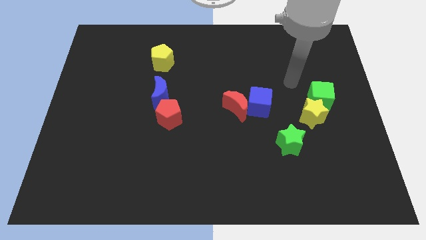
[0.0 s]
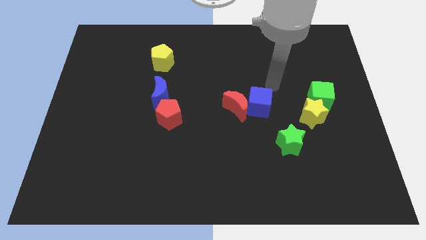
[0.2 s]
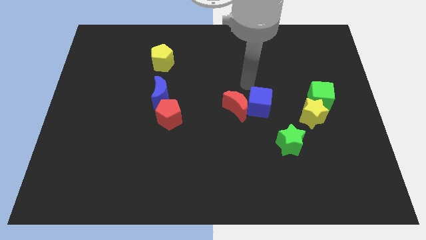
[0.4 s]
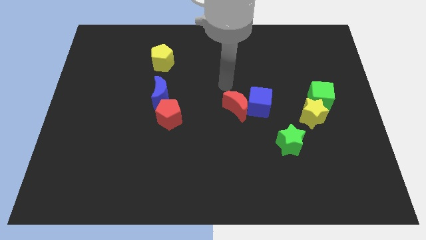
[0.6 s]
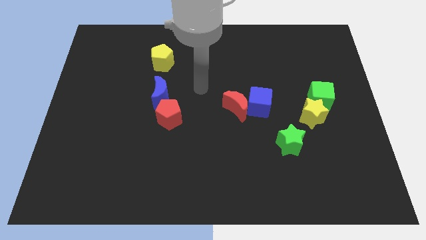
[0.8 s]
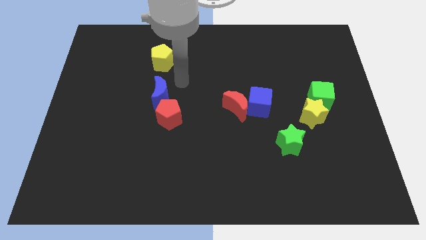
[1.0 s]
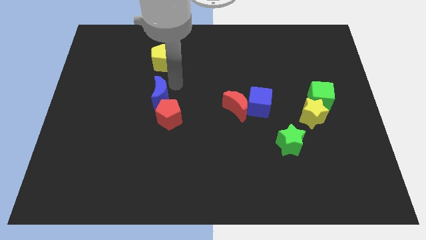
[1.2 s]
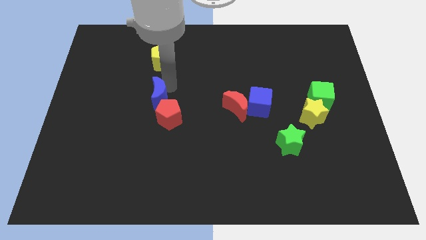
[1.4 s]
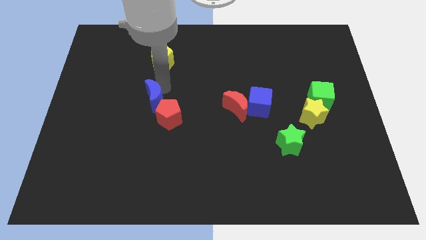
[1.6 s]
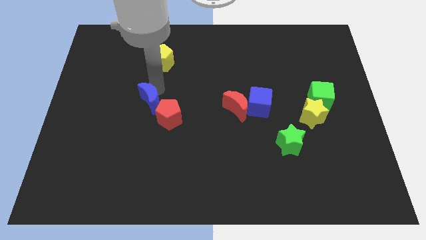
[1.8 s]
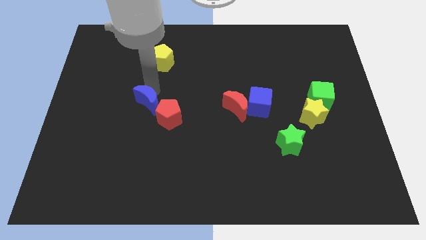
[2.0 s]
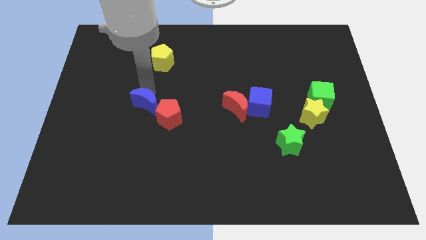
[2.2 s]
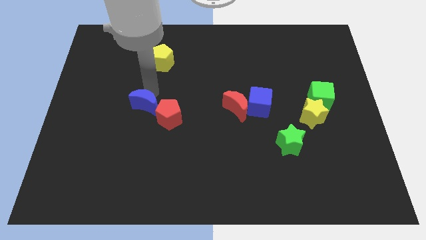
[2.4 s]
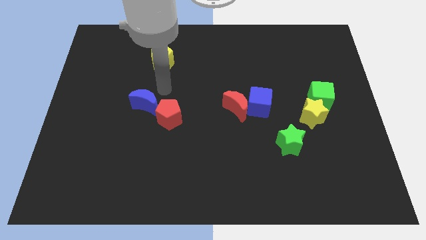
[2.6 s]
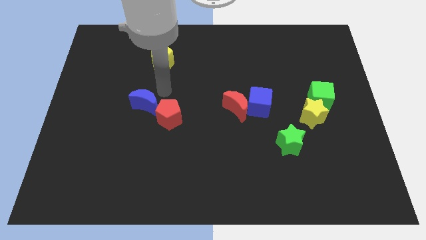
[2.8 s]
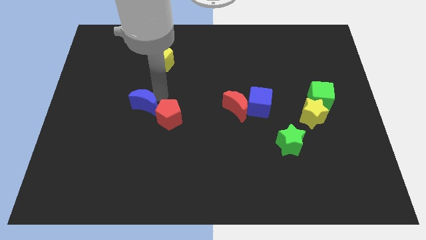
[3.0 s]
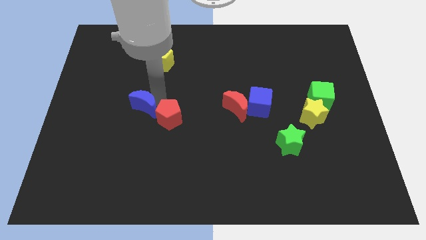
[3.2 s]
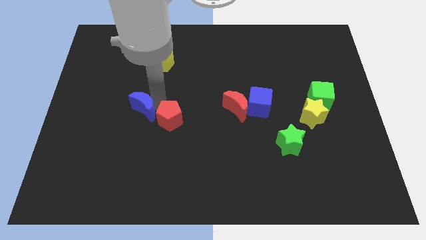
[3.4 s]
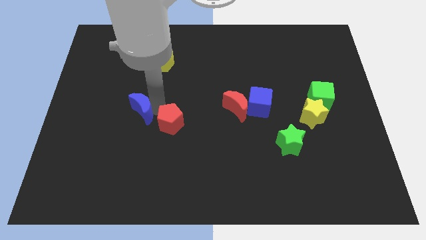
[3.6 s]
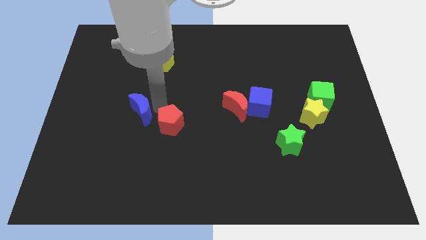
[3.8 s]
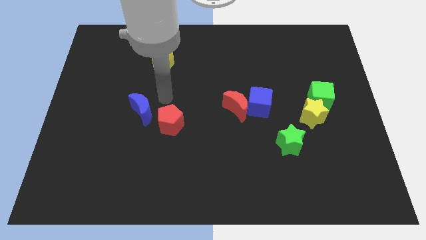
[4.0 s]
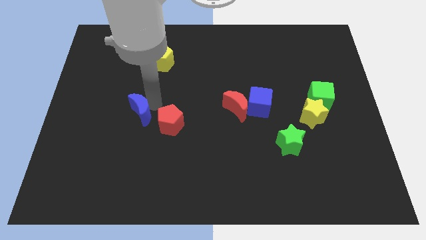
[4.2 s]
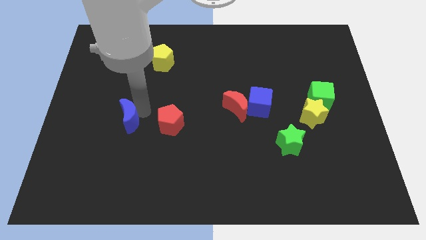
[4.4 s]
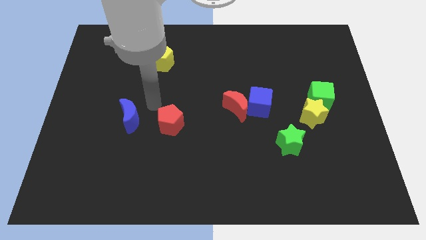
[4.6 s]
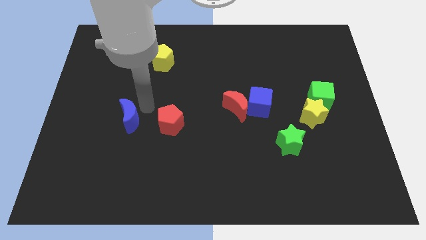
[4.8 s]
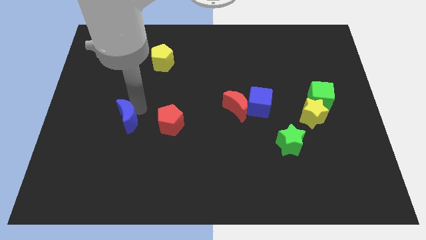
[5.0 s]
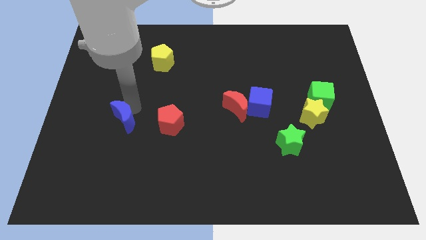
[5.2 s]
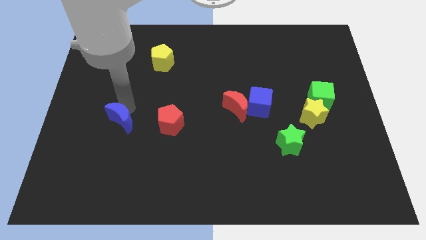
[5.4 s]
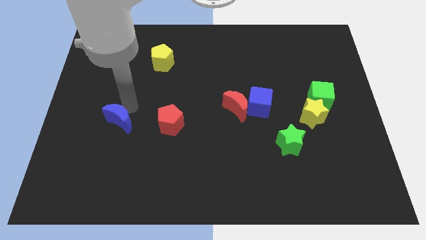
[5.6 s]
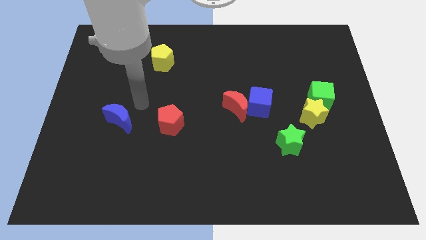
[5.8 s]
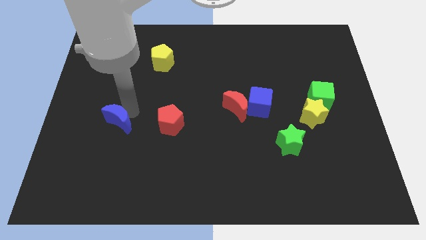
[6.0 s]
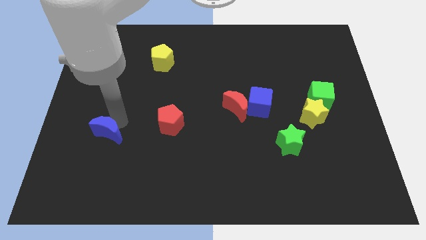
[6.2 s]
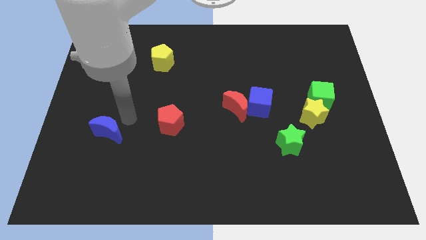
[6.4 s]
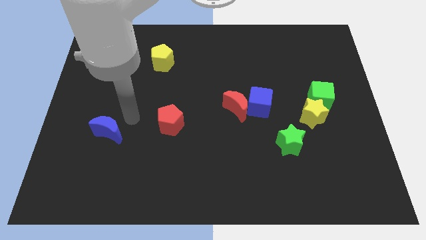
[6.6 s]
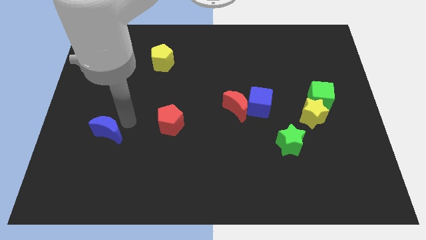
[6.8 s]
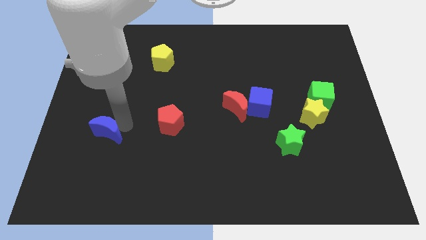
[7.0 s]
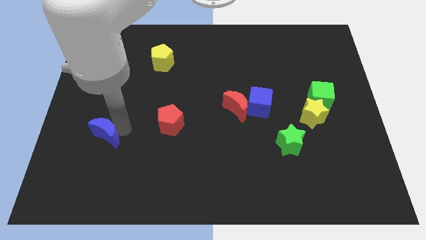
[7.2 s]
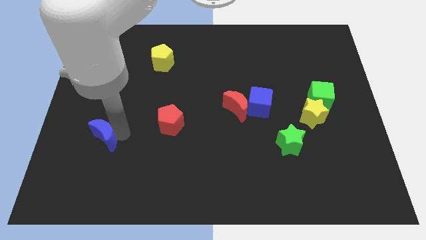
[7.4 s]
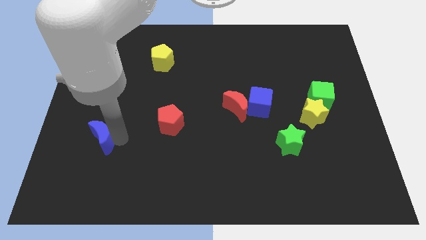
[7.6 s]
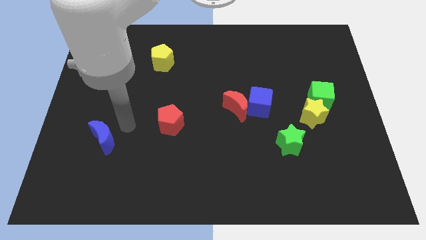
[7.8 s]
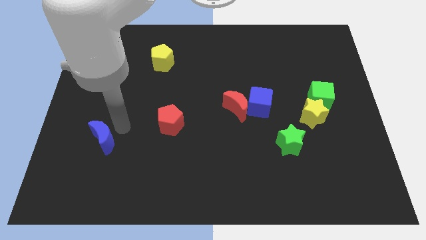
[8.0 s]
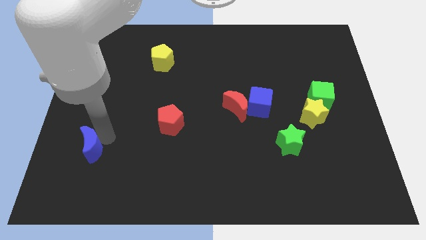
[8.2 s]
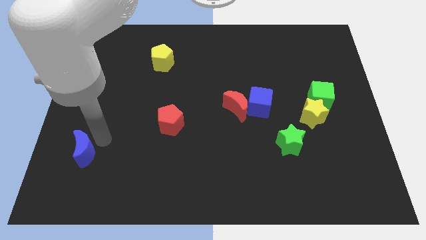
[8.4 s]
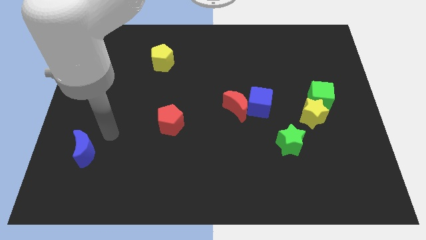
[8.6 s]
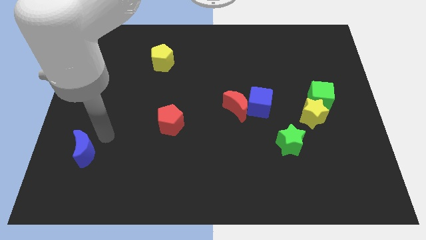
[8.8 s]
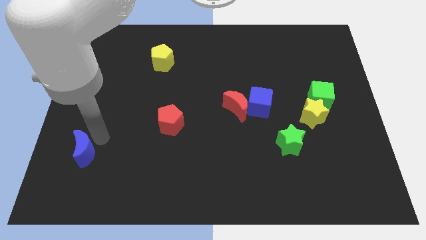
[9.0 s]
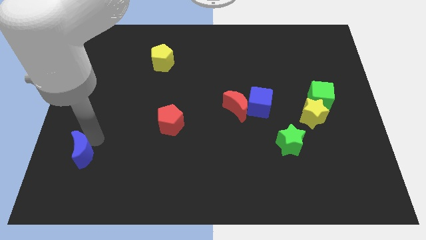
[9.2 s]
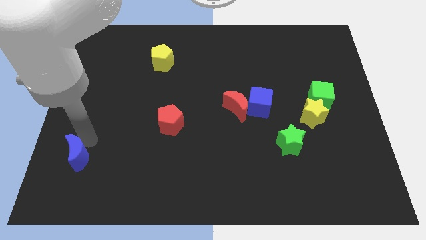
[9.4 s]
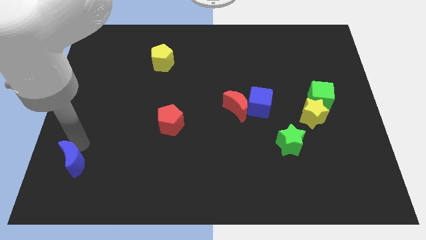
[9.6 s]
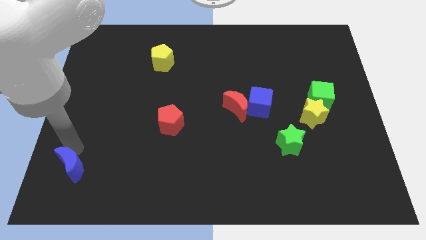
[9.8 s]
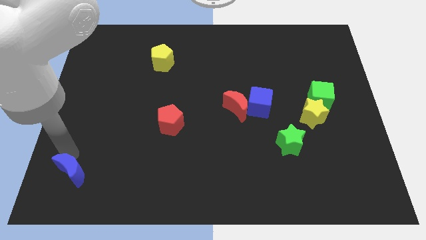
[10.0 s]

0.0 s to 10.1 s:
slide the blue moon to the lower left corner

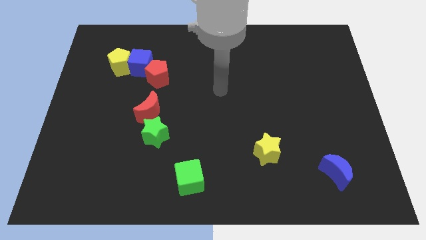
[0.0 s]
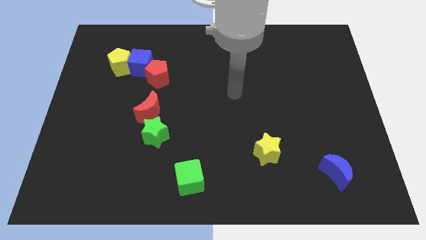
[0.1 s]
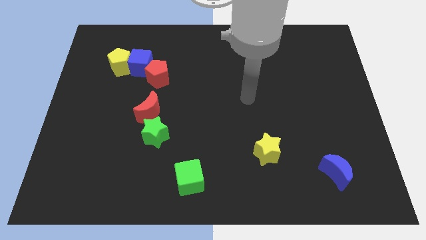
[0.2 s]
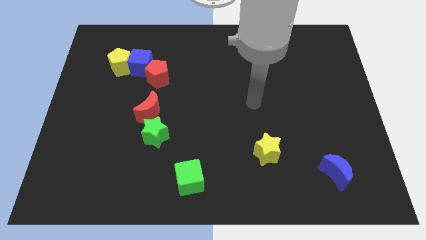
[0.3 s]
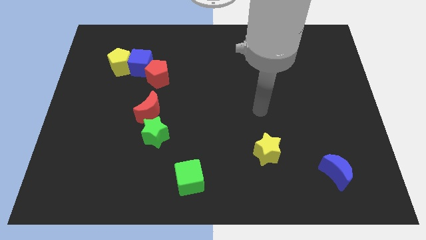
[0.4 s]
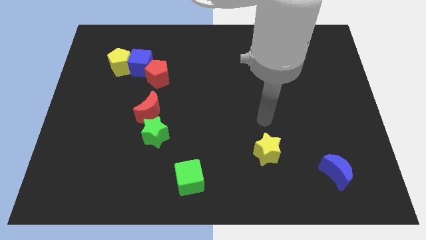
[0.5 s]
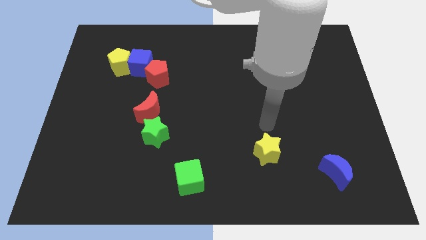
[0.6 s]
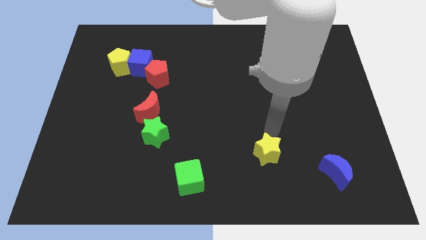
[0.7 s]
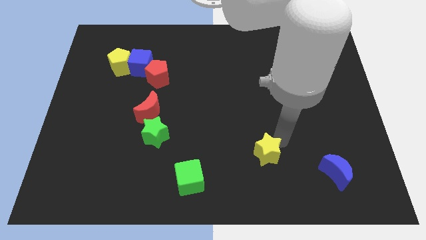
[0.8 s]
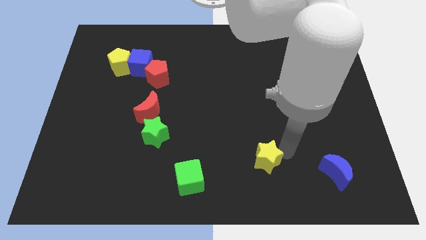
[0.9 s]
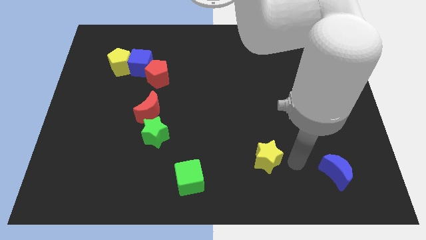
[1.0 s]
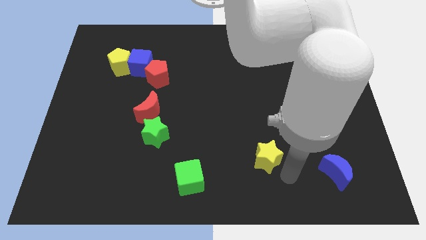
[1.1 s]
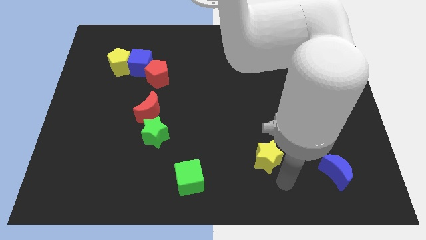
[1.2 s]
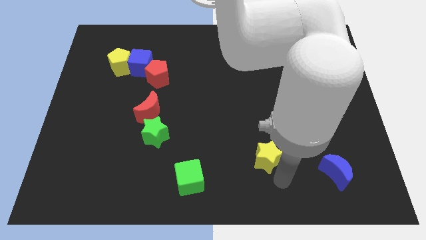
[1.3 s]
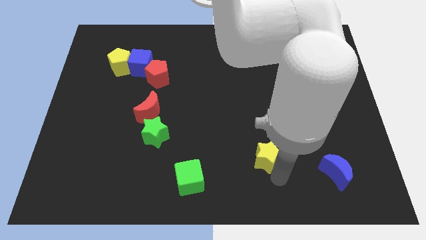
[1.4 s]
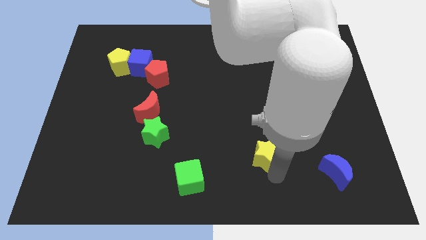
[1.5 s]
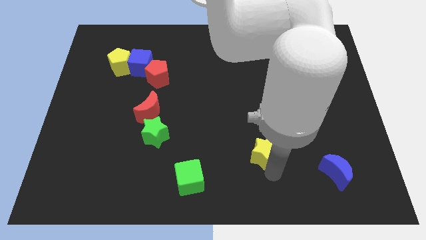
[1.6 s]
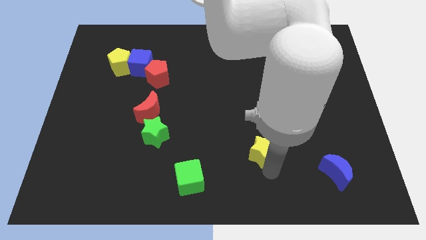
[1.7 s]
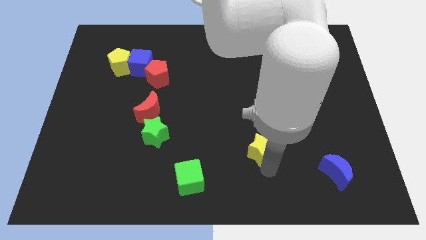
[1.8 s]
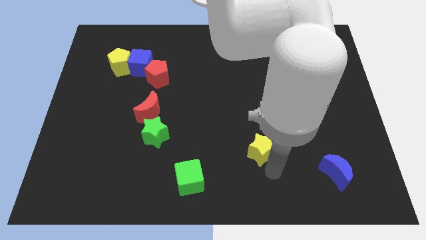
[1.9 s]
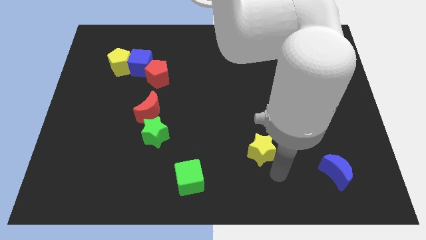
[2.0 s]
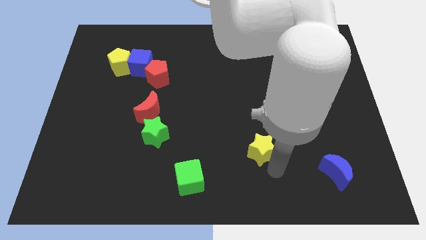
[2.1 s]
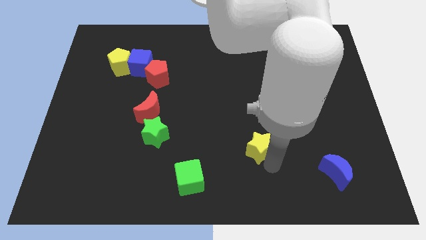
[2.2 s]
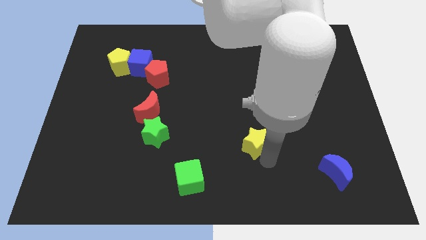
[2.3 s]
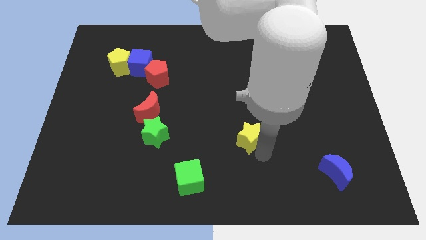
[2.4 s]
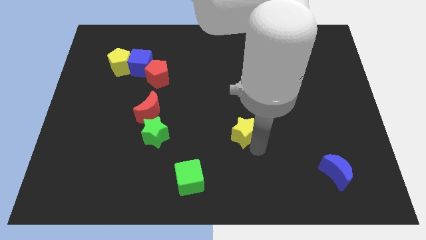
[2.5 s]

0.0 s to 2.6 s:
slide the yellow star to the center
